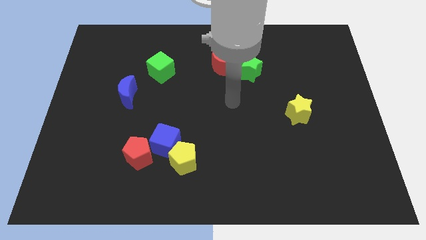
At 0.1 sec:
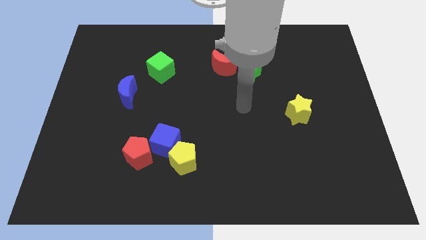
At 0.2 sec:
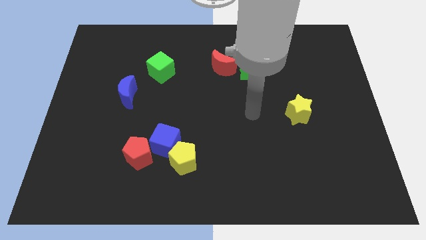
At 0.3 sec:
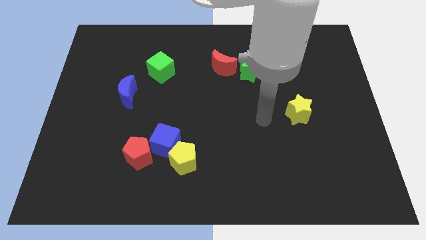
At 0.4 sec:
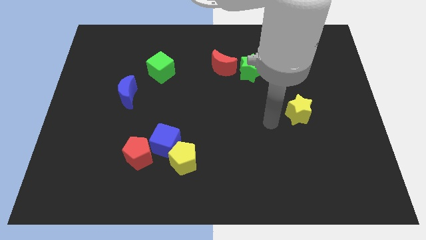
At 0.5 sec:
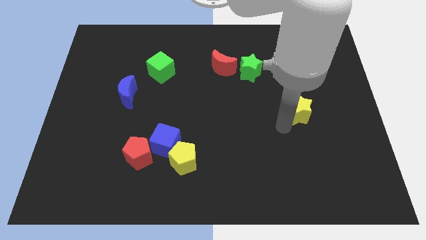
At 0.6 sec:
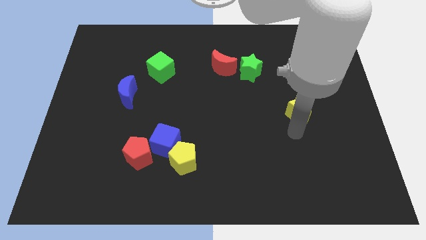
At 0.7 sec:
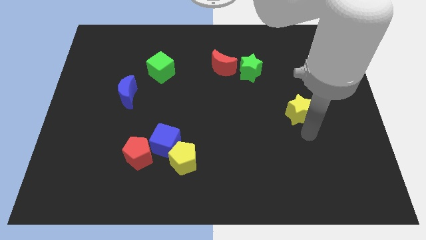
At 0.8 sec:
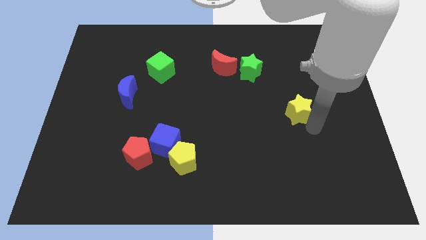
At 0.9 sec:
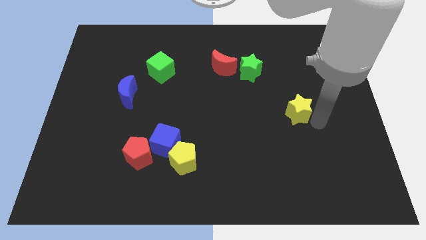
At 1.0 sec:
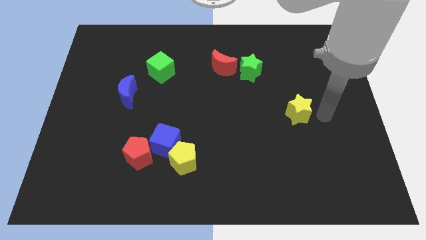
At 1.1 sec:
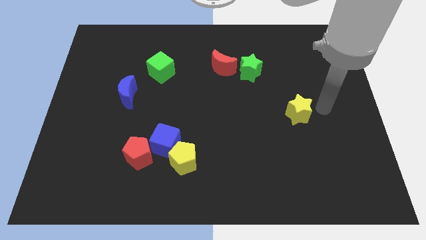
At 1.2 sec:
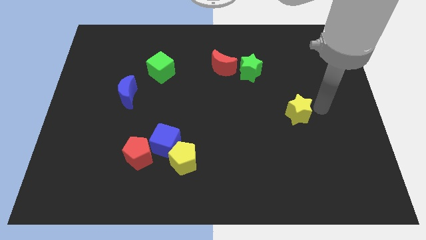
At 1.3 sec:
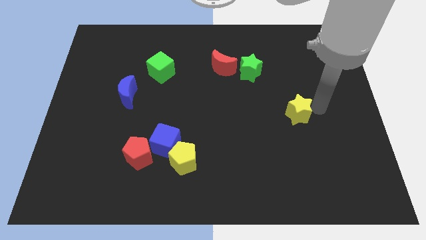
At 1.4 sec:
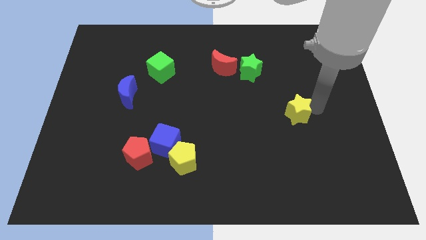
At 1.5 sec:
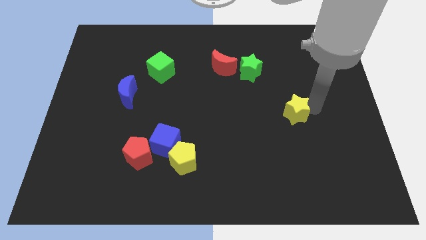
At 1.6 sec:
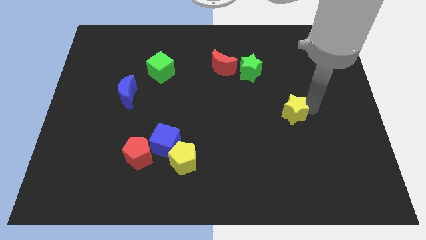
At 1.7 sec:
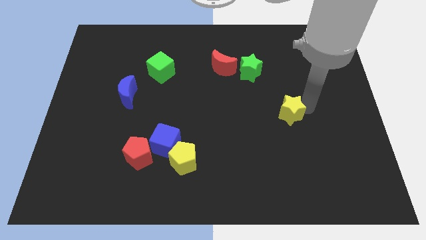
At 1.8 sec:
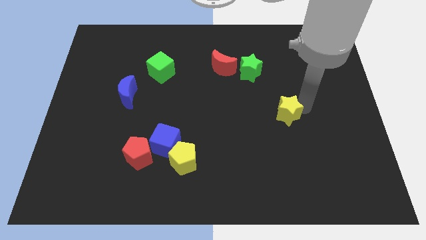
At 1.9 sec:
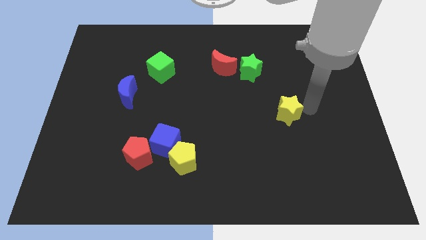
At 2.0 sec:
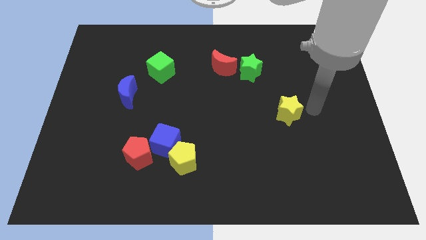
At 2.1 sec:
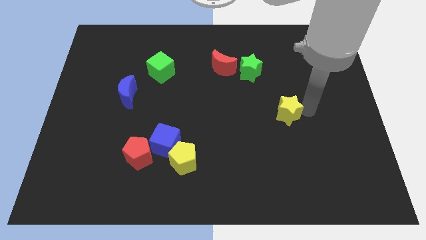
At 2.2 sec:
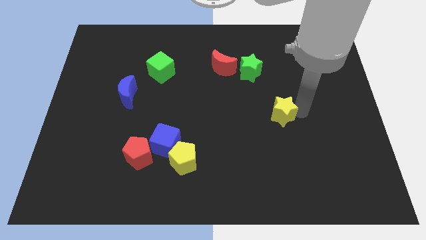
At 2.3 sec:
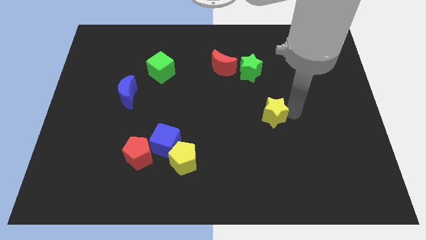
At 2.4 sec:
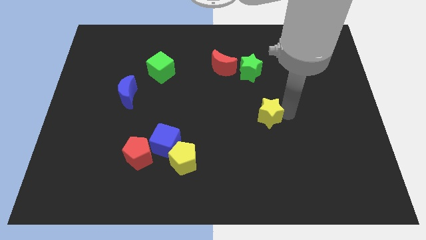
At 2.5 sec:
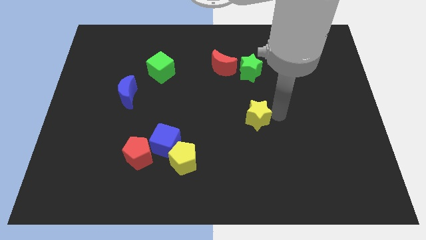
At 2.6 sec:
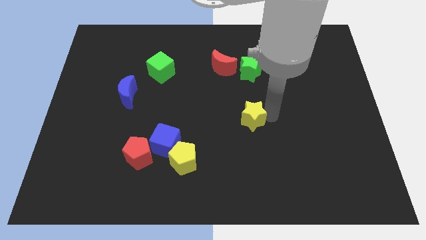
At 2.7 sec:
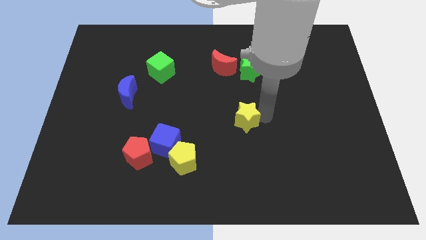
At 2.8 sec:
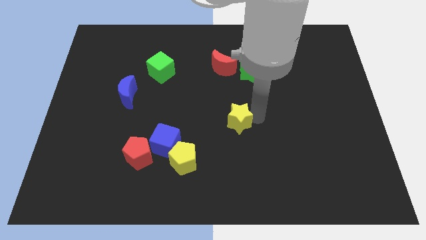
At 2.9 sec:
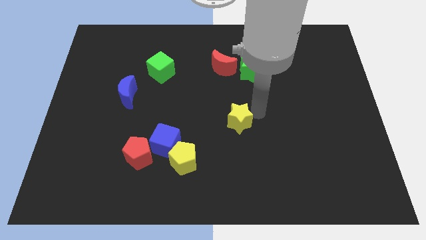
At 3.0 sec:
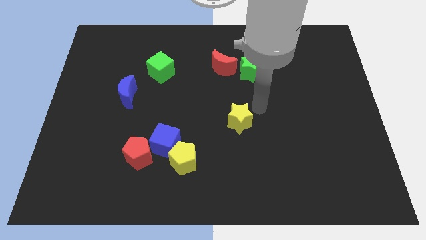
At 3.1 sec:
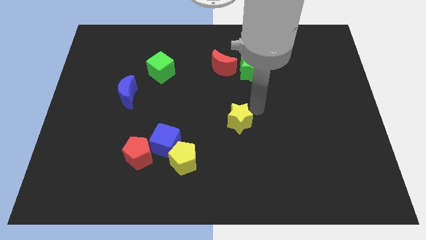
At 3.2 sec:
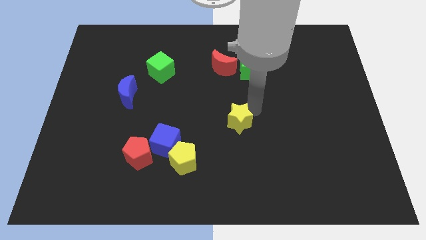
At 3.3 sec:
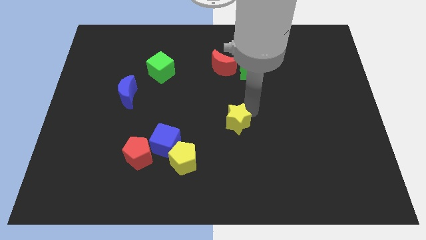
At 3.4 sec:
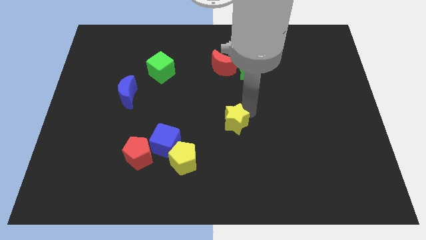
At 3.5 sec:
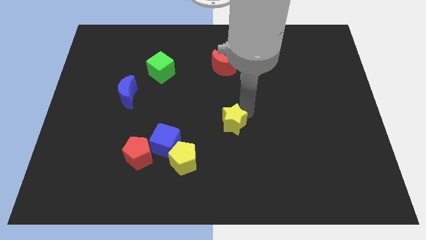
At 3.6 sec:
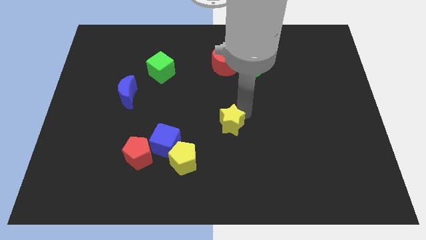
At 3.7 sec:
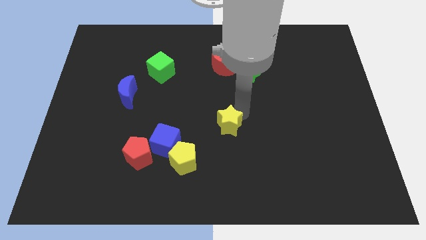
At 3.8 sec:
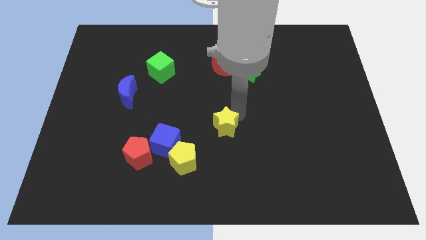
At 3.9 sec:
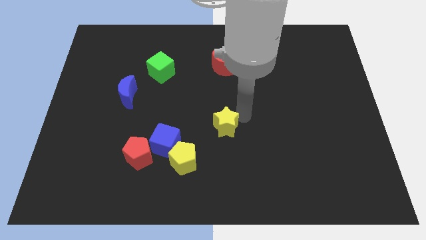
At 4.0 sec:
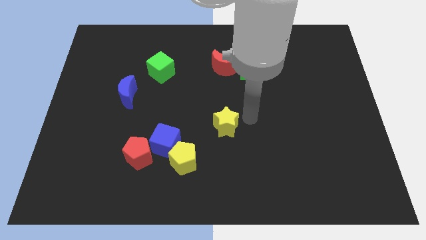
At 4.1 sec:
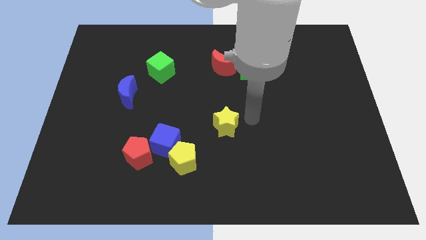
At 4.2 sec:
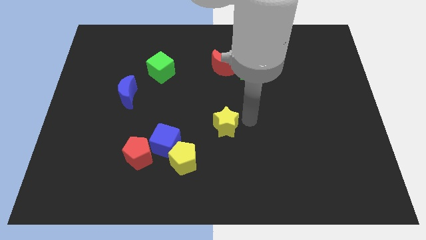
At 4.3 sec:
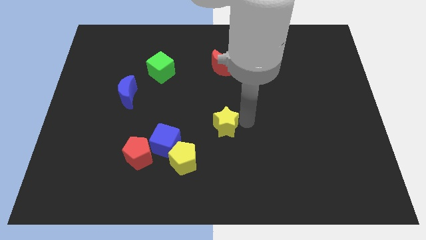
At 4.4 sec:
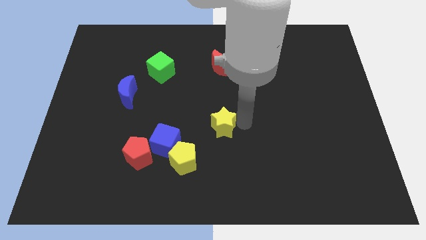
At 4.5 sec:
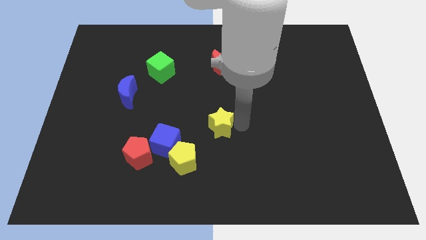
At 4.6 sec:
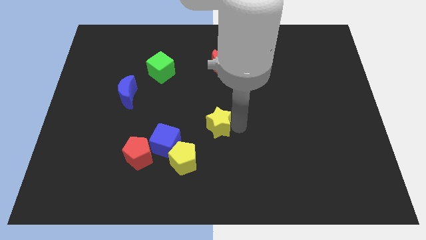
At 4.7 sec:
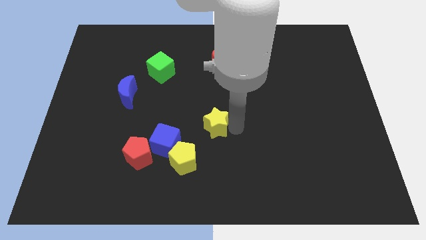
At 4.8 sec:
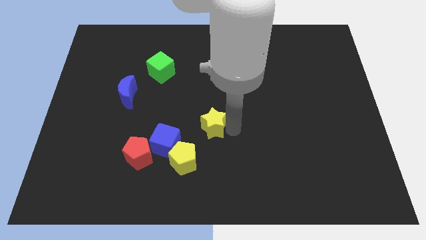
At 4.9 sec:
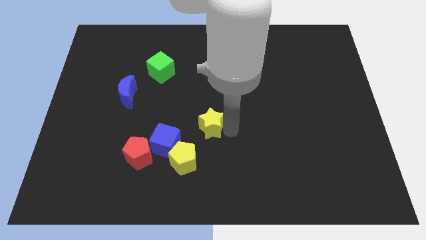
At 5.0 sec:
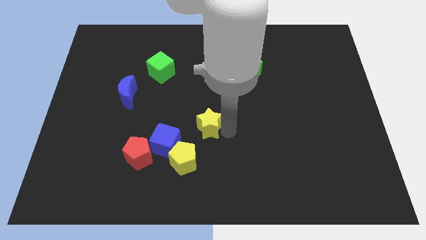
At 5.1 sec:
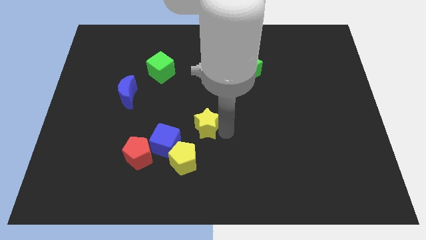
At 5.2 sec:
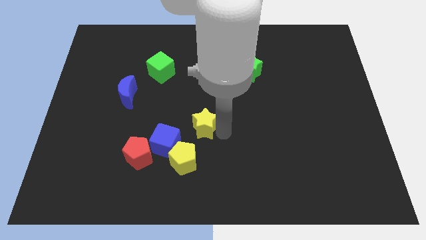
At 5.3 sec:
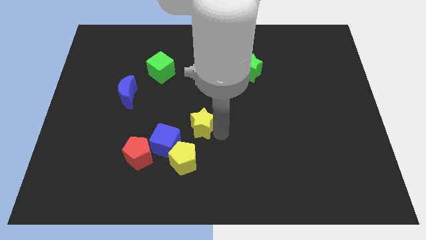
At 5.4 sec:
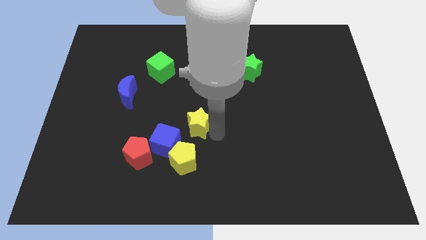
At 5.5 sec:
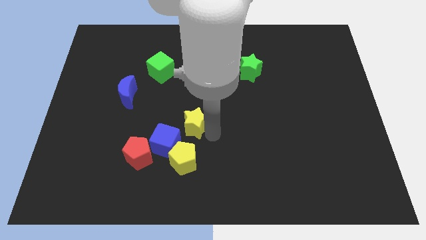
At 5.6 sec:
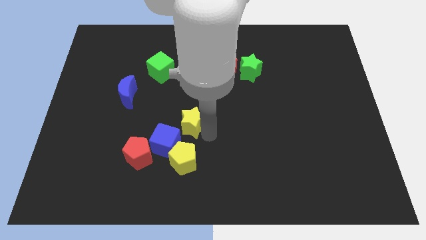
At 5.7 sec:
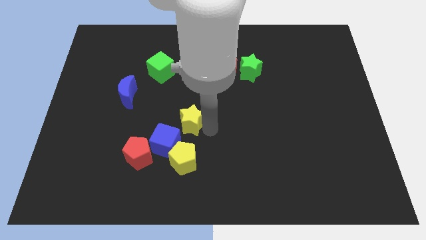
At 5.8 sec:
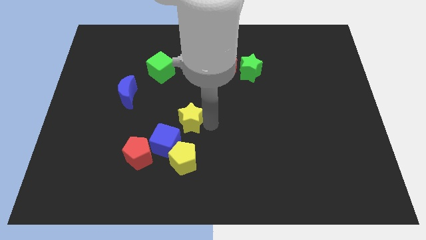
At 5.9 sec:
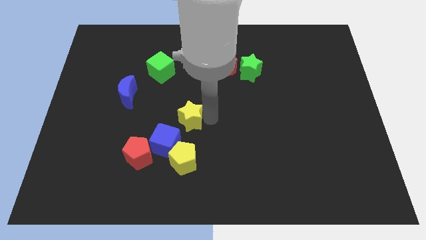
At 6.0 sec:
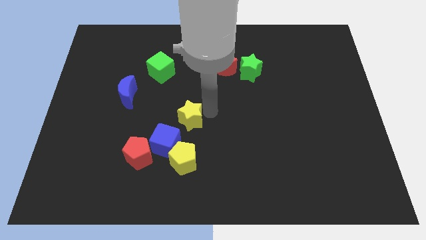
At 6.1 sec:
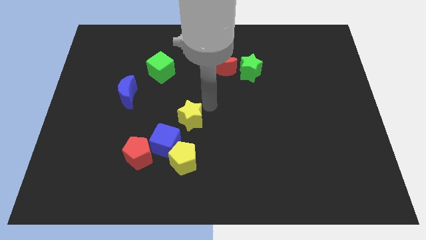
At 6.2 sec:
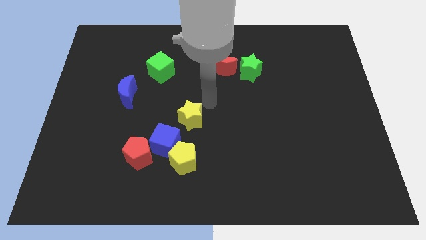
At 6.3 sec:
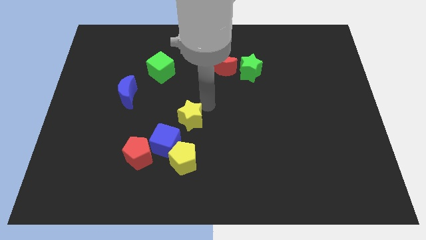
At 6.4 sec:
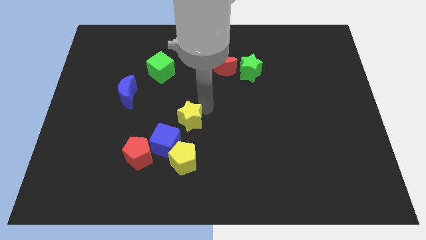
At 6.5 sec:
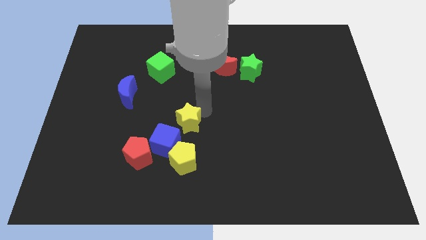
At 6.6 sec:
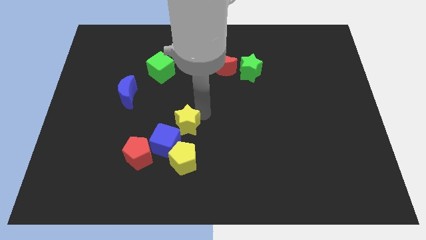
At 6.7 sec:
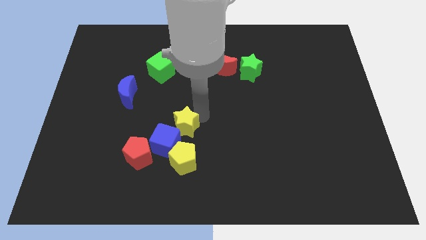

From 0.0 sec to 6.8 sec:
slide the yellow star towards the blue cube
